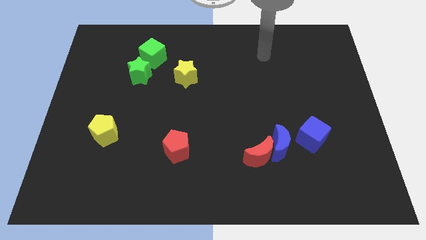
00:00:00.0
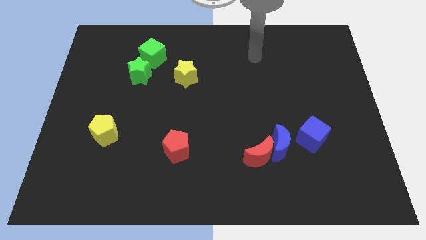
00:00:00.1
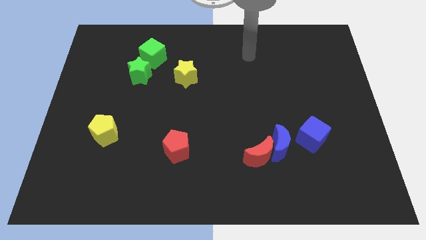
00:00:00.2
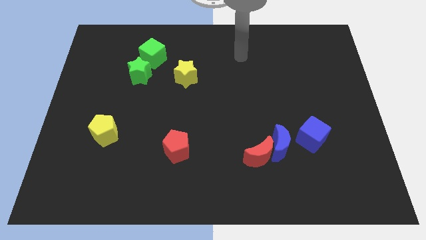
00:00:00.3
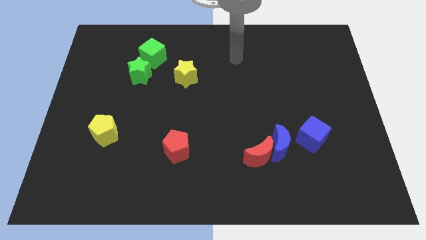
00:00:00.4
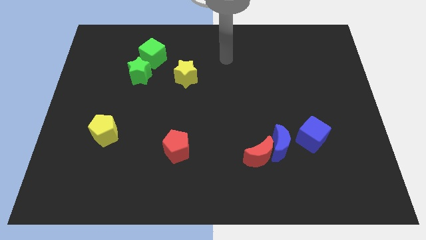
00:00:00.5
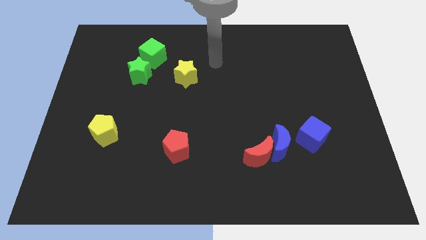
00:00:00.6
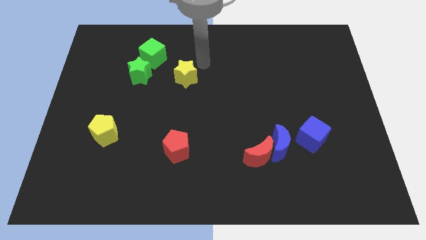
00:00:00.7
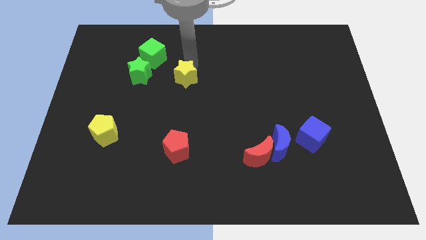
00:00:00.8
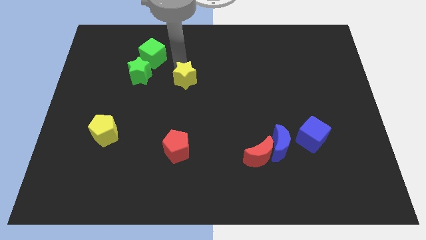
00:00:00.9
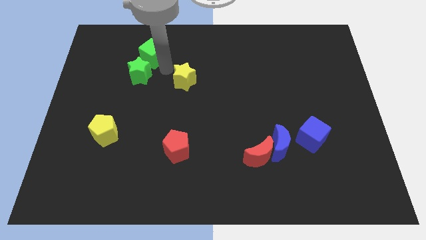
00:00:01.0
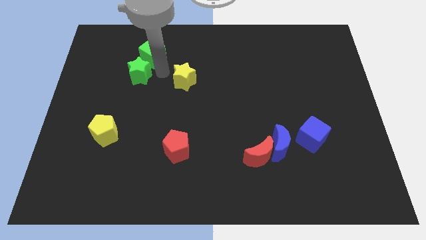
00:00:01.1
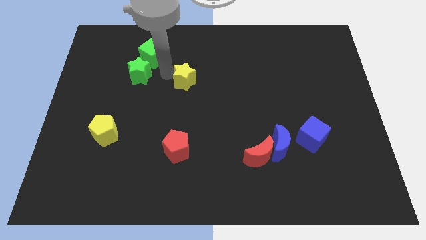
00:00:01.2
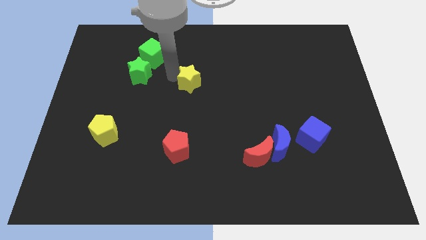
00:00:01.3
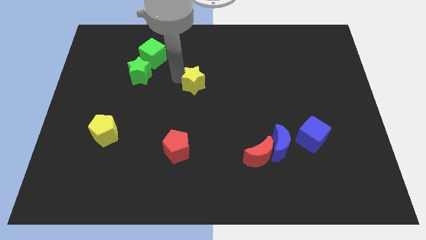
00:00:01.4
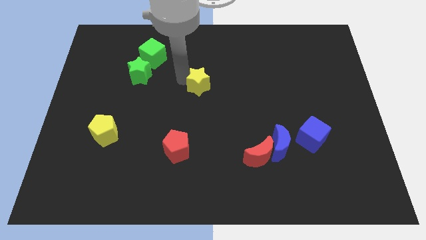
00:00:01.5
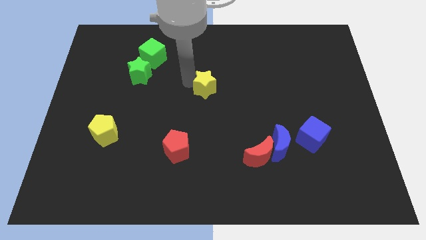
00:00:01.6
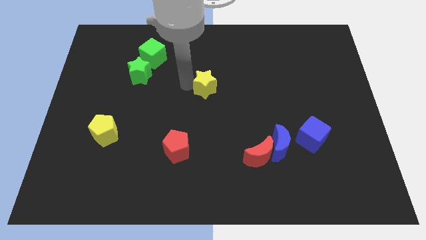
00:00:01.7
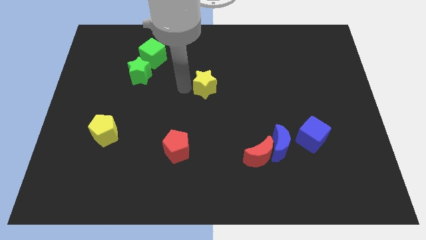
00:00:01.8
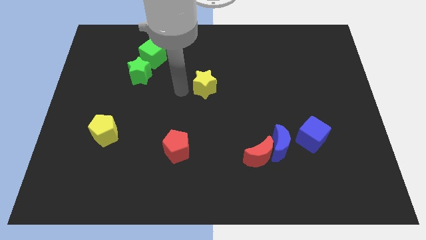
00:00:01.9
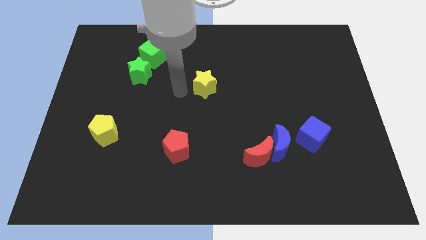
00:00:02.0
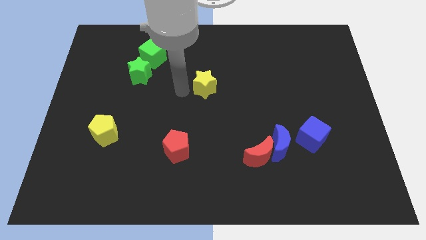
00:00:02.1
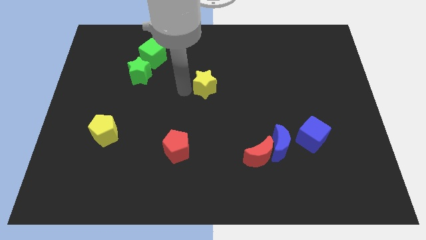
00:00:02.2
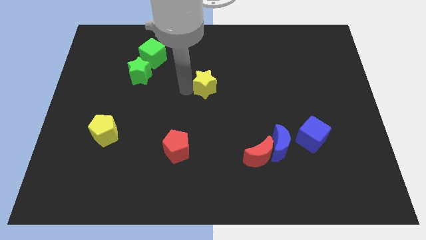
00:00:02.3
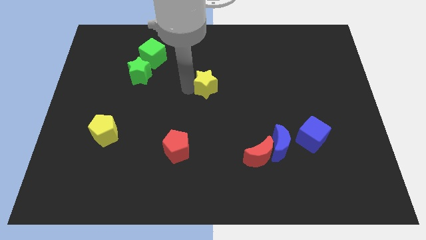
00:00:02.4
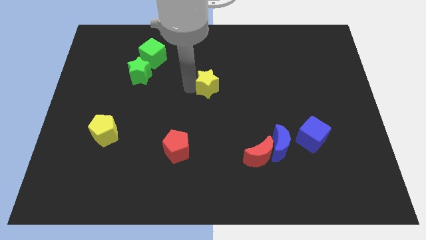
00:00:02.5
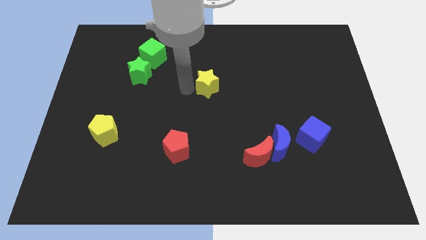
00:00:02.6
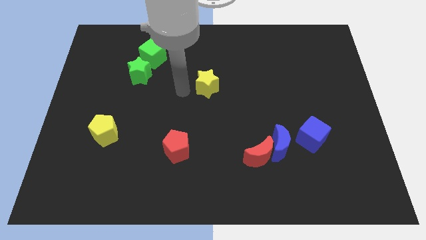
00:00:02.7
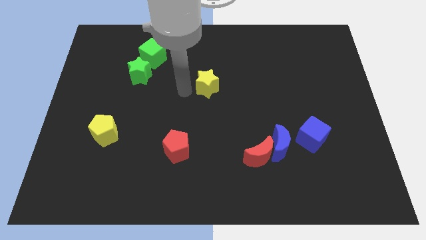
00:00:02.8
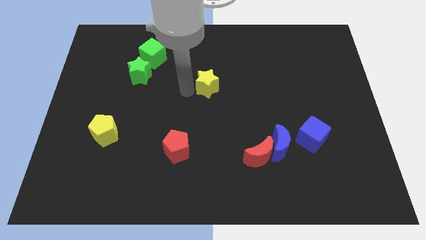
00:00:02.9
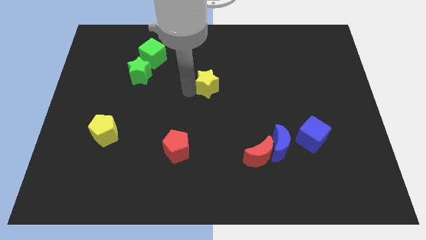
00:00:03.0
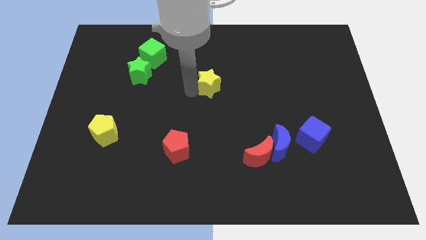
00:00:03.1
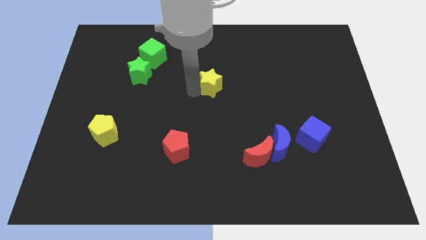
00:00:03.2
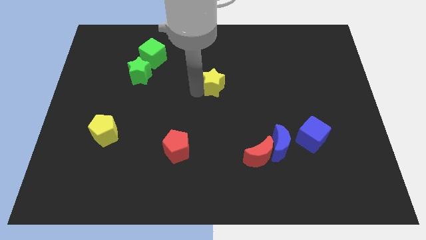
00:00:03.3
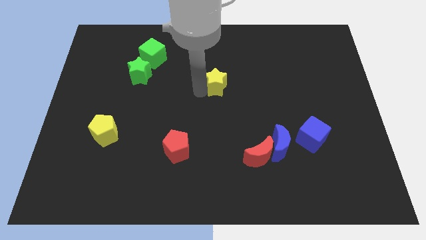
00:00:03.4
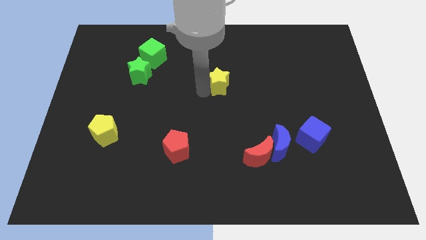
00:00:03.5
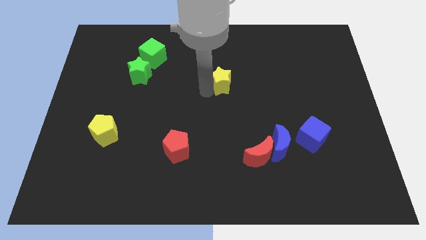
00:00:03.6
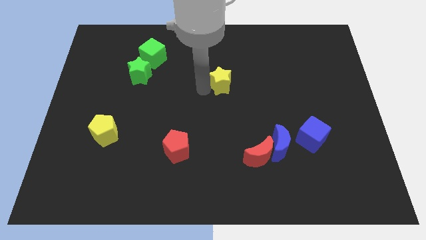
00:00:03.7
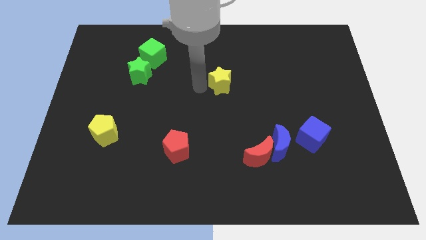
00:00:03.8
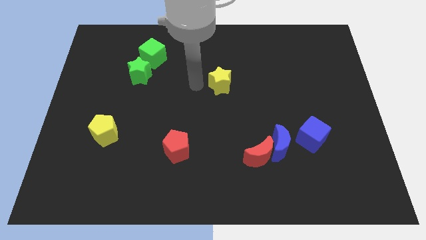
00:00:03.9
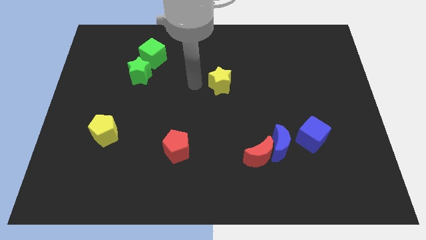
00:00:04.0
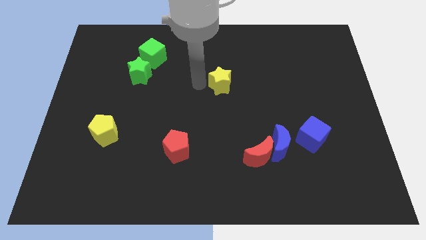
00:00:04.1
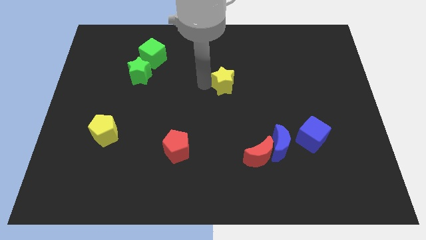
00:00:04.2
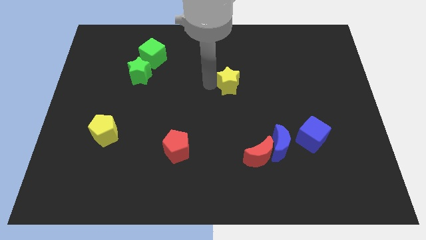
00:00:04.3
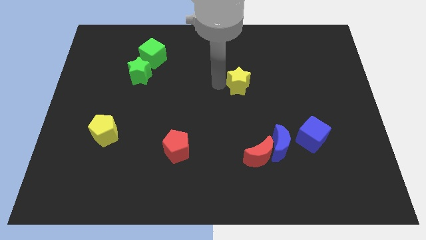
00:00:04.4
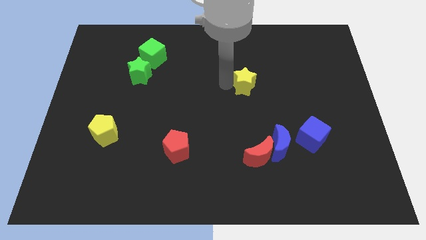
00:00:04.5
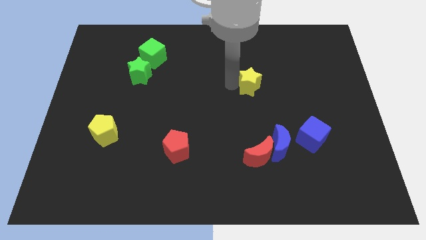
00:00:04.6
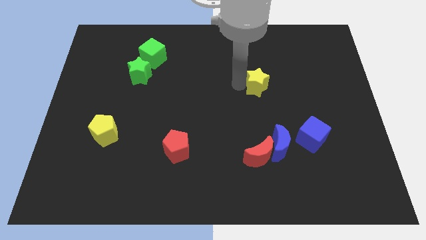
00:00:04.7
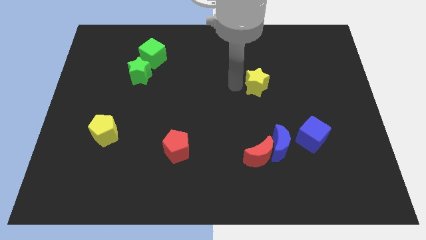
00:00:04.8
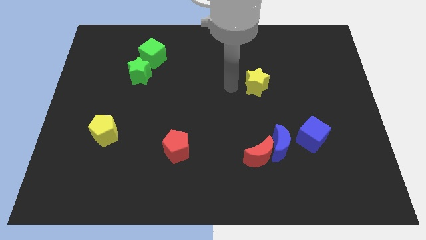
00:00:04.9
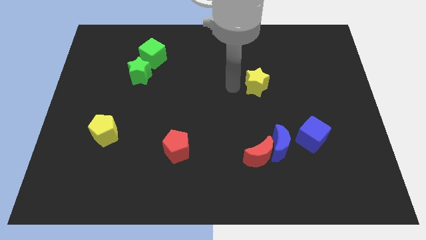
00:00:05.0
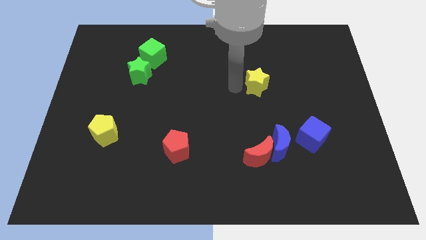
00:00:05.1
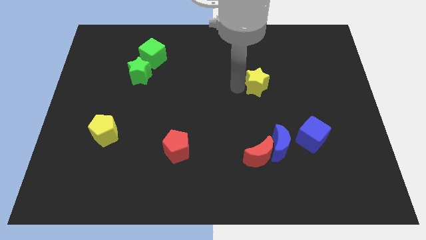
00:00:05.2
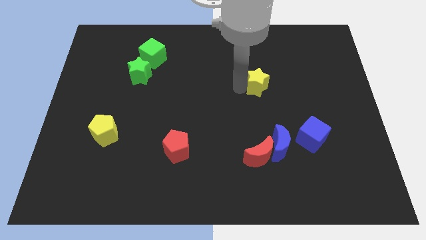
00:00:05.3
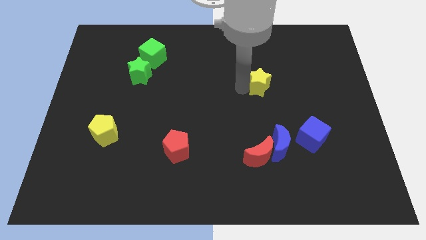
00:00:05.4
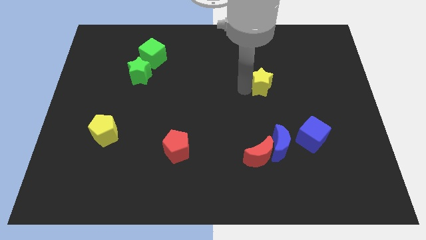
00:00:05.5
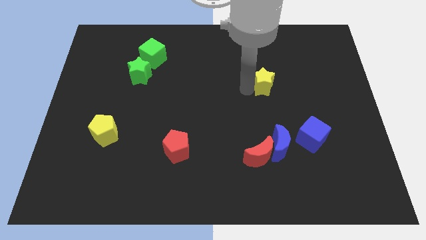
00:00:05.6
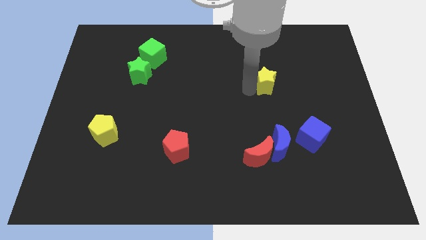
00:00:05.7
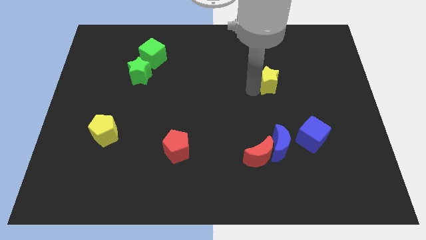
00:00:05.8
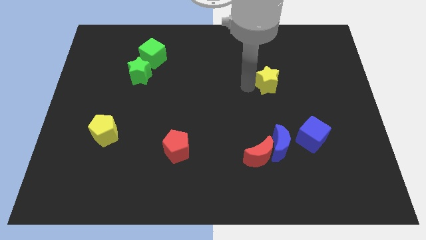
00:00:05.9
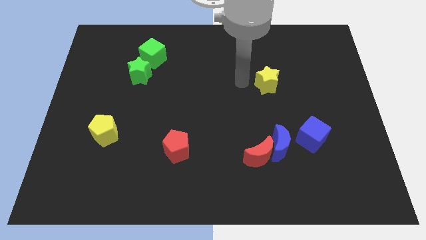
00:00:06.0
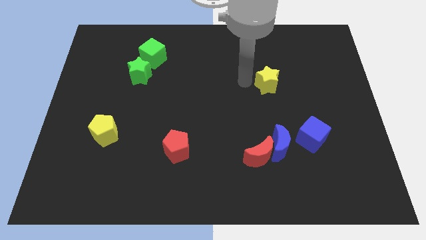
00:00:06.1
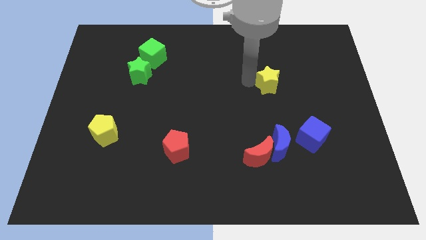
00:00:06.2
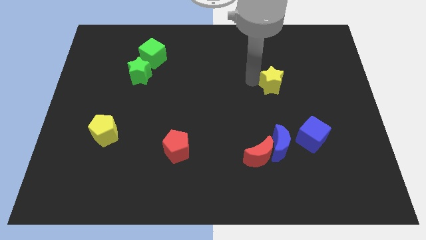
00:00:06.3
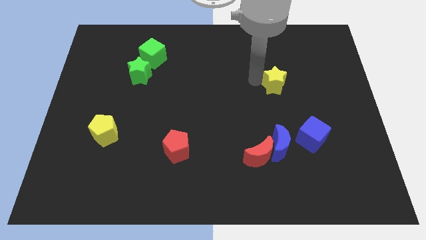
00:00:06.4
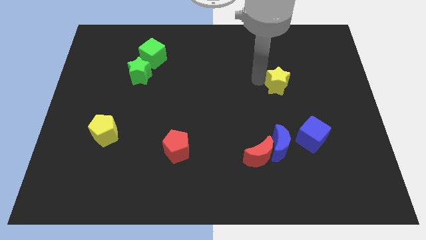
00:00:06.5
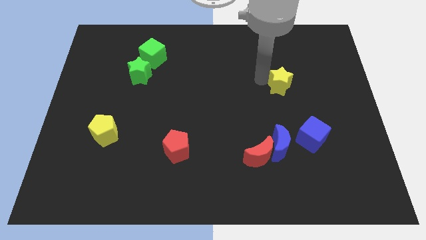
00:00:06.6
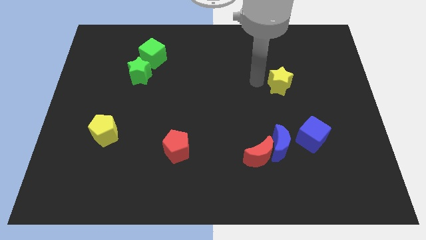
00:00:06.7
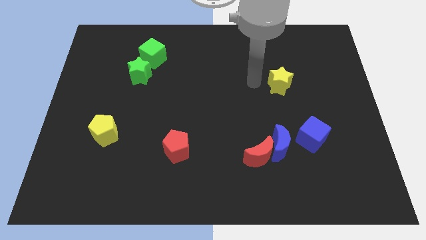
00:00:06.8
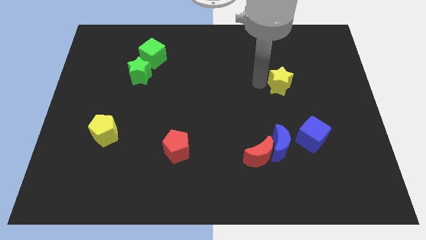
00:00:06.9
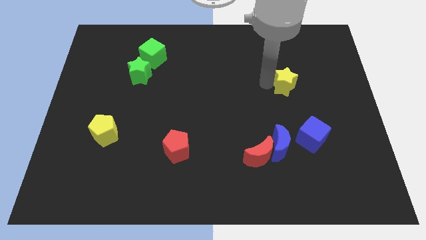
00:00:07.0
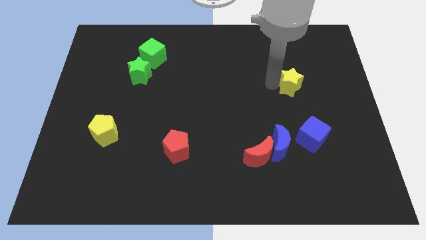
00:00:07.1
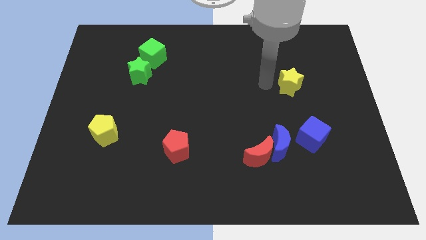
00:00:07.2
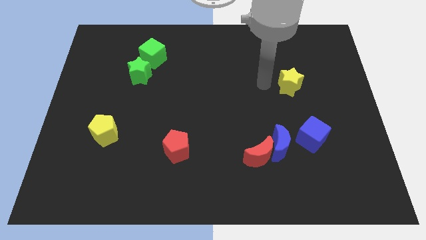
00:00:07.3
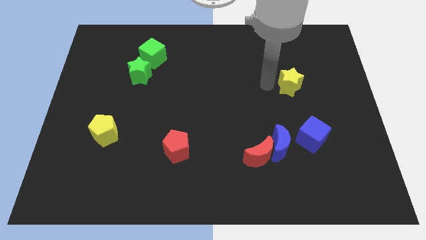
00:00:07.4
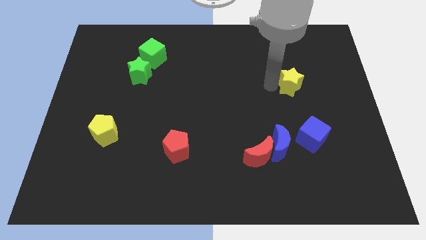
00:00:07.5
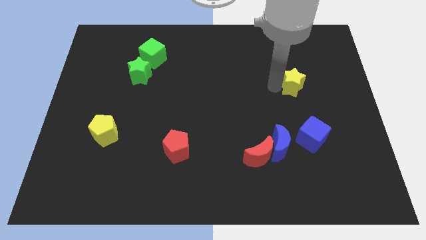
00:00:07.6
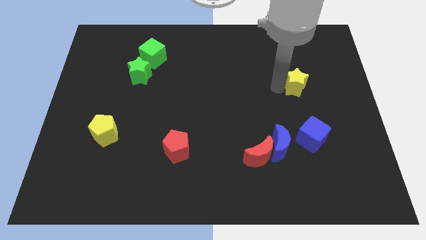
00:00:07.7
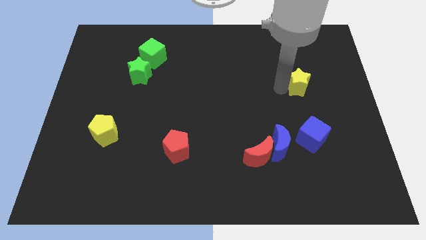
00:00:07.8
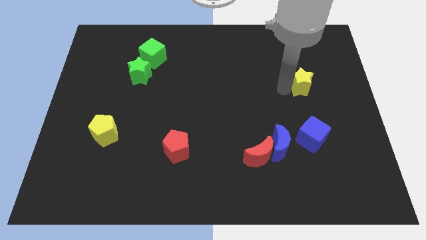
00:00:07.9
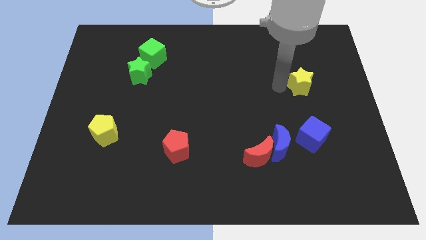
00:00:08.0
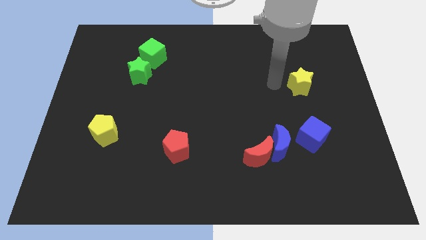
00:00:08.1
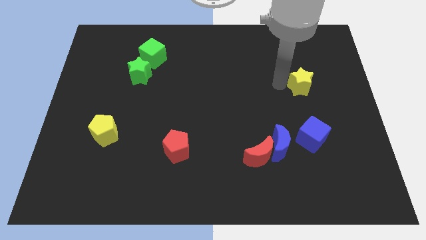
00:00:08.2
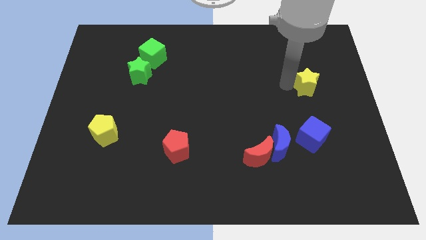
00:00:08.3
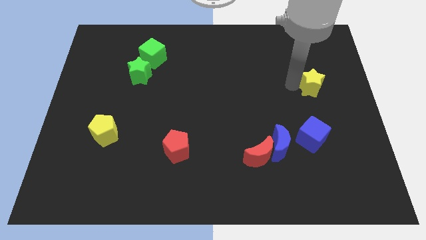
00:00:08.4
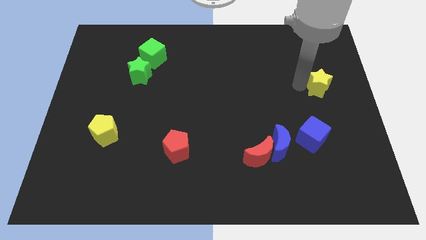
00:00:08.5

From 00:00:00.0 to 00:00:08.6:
move the yellow star to the right side of the board
